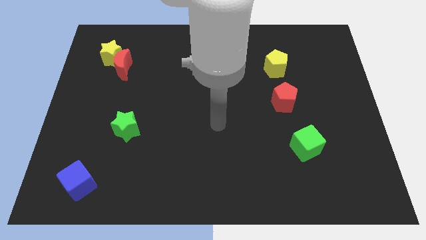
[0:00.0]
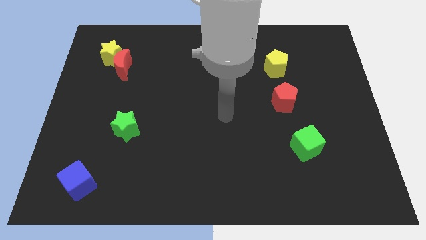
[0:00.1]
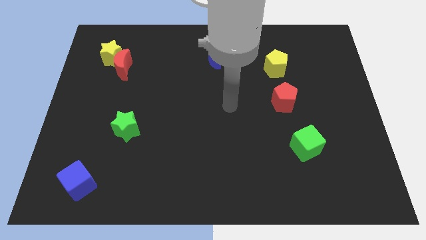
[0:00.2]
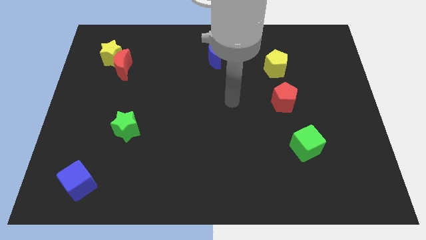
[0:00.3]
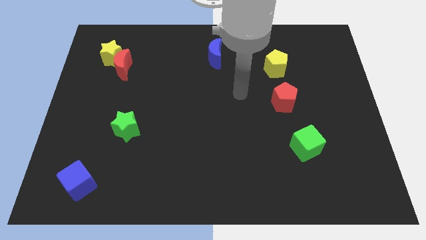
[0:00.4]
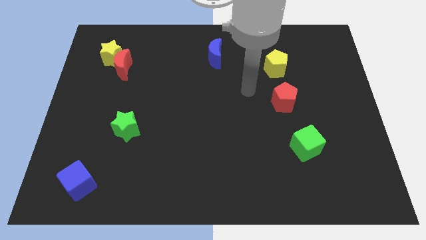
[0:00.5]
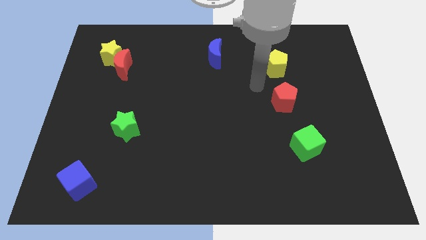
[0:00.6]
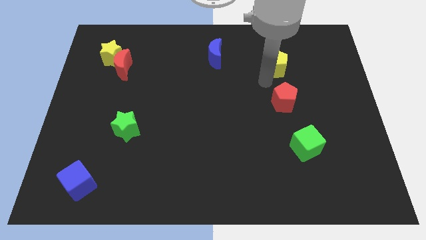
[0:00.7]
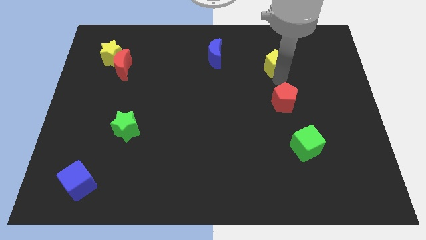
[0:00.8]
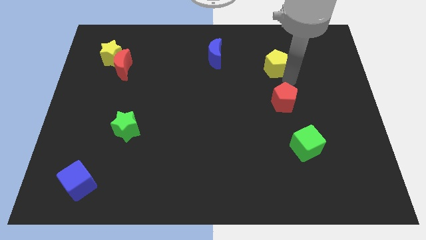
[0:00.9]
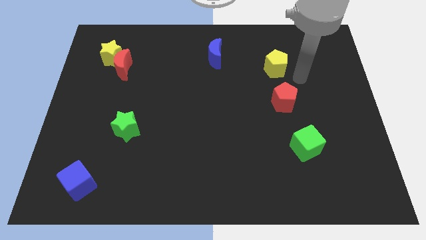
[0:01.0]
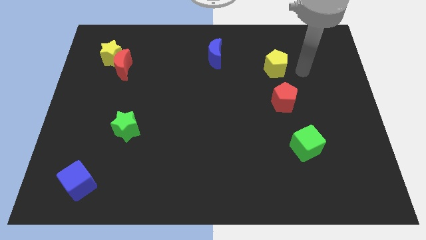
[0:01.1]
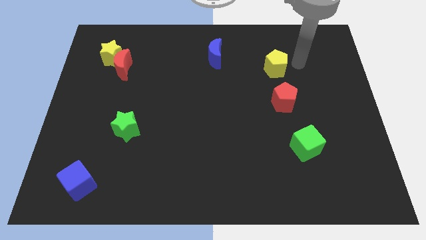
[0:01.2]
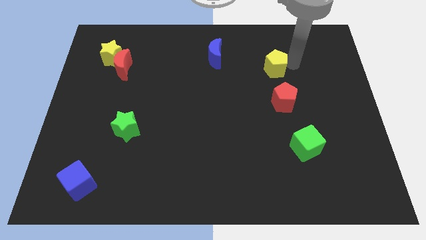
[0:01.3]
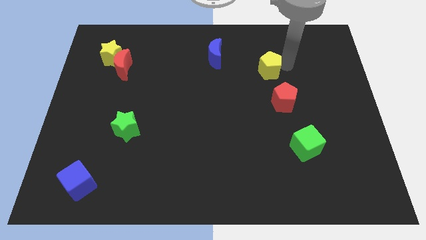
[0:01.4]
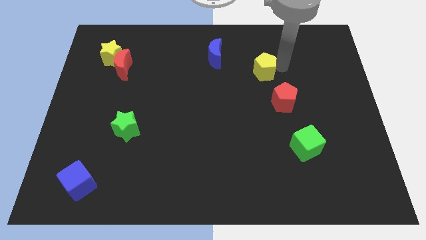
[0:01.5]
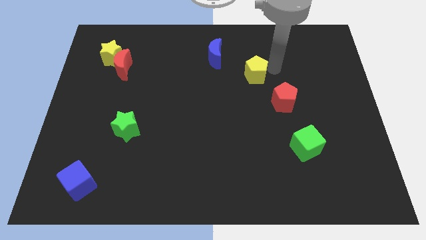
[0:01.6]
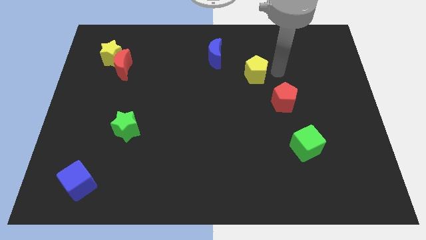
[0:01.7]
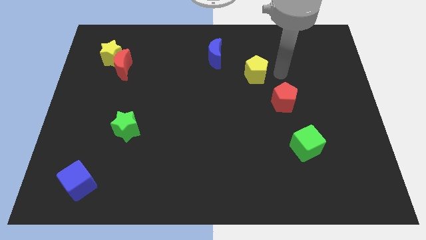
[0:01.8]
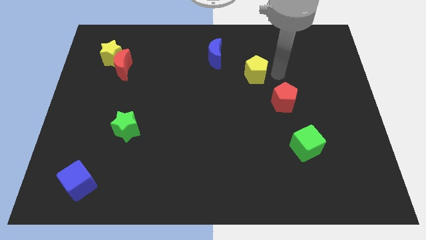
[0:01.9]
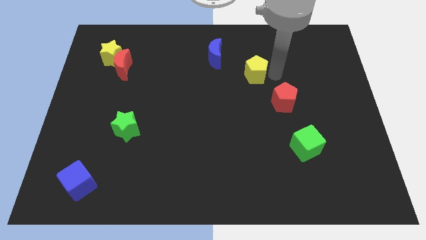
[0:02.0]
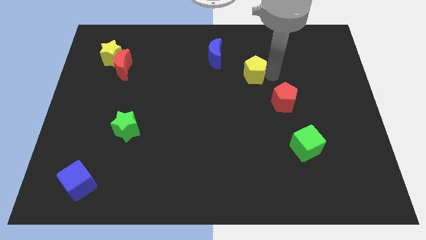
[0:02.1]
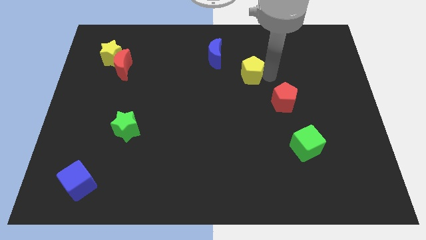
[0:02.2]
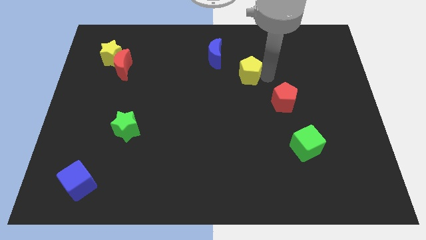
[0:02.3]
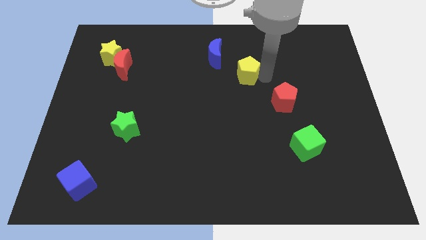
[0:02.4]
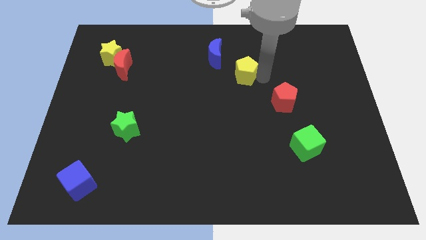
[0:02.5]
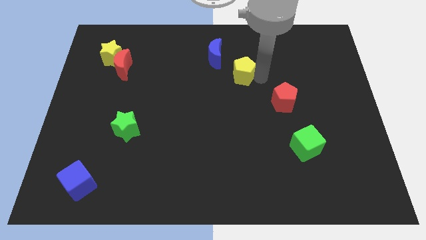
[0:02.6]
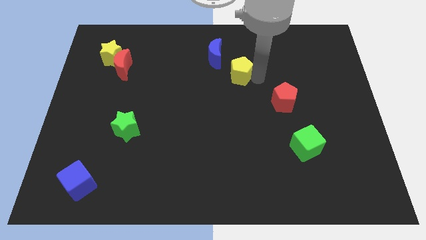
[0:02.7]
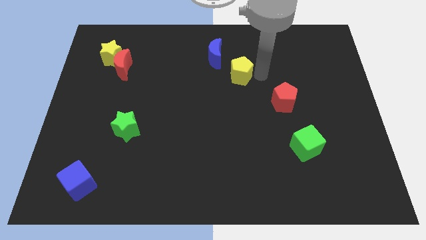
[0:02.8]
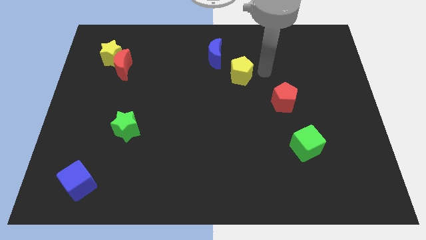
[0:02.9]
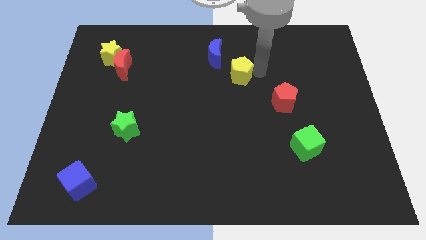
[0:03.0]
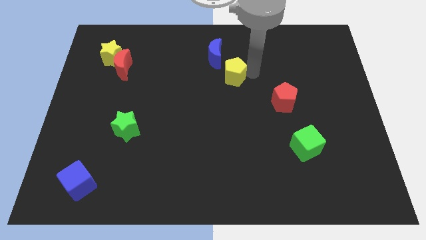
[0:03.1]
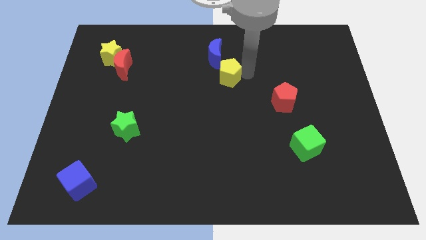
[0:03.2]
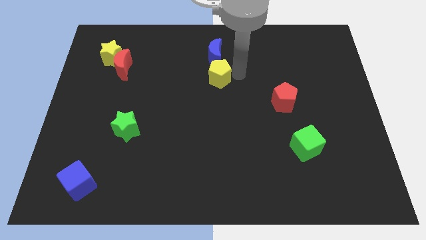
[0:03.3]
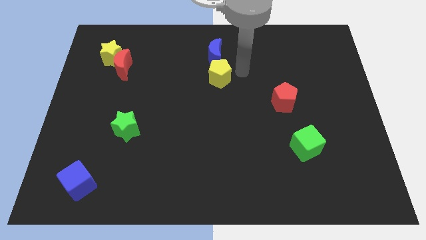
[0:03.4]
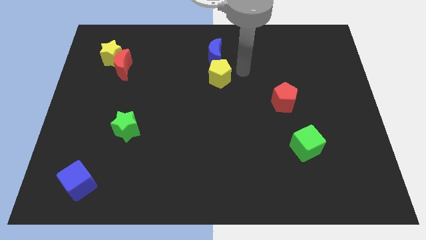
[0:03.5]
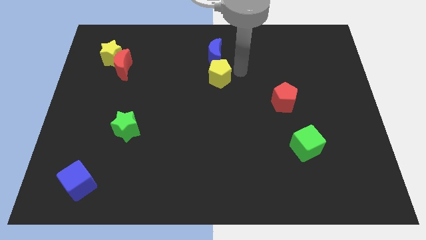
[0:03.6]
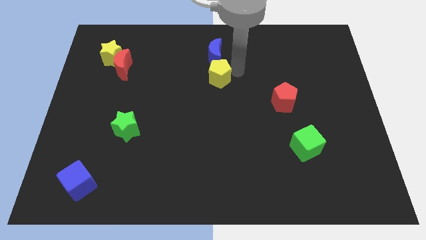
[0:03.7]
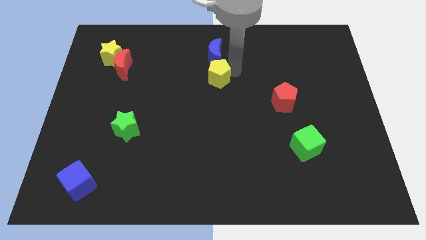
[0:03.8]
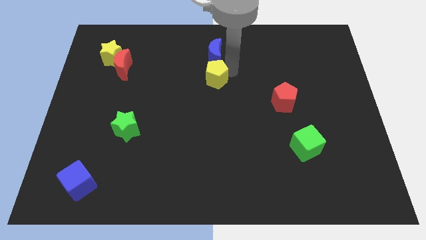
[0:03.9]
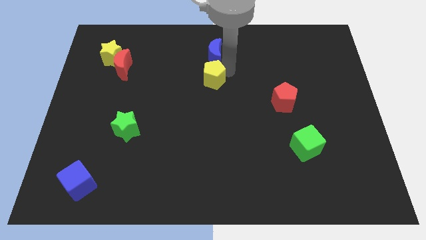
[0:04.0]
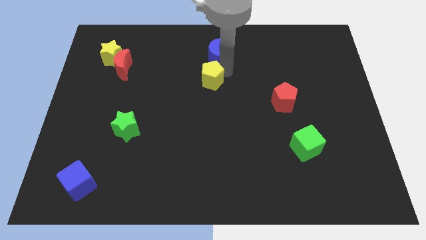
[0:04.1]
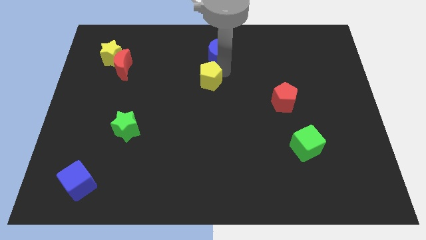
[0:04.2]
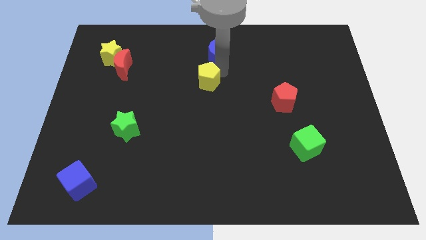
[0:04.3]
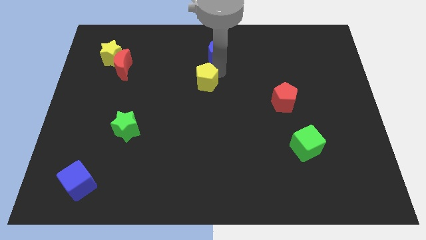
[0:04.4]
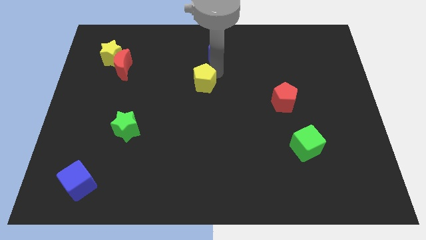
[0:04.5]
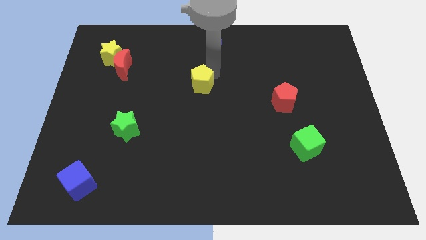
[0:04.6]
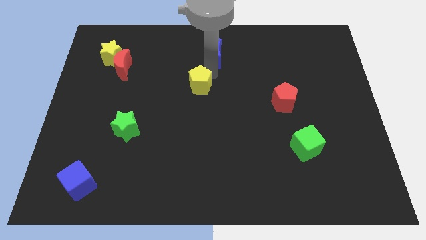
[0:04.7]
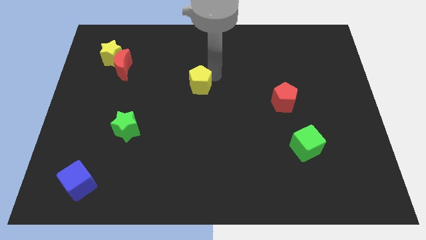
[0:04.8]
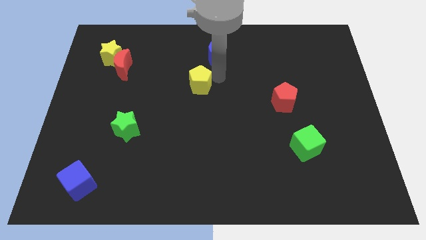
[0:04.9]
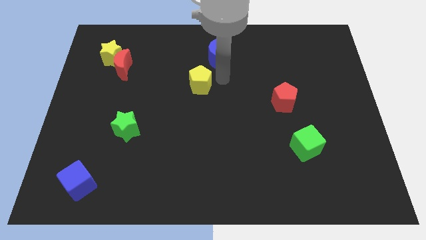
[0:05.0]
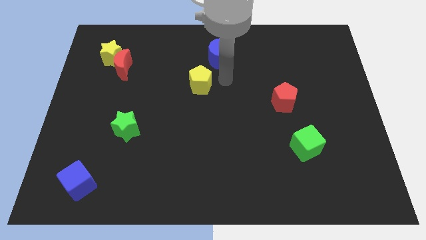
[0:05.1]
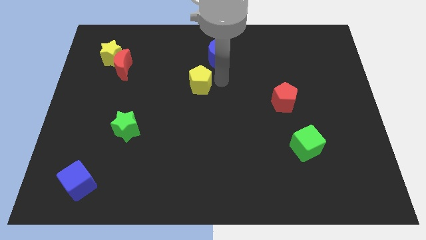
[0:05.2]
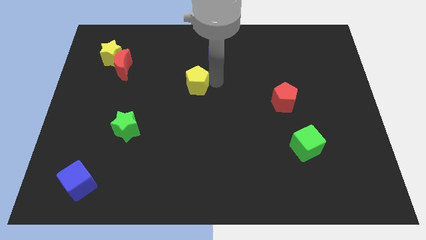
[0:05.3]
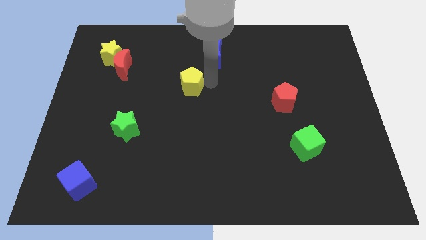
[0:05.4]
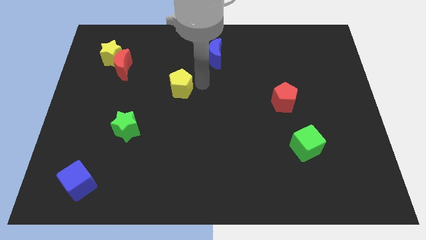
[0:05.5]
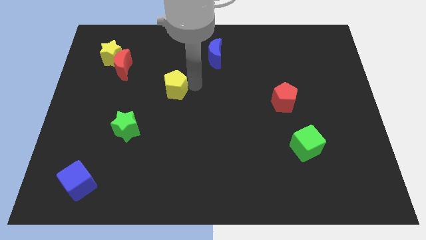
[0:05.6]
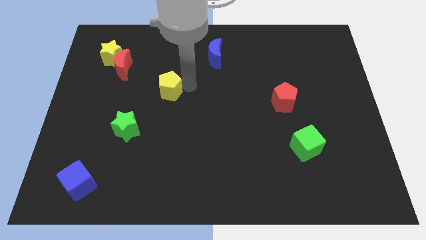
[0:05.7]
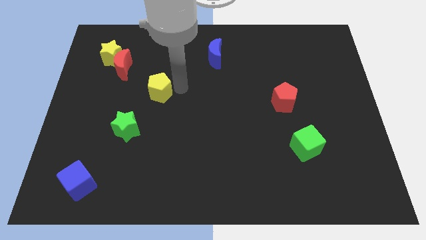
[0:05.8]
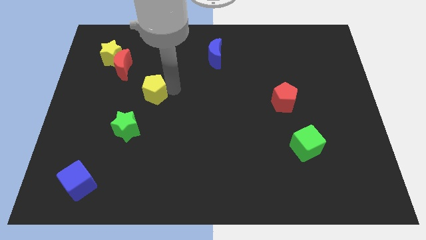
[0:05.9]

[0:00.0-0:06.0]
move the yellow pentagon to the top of the green star

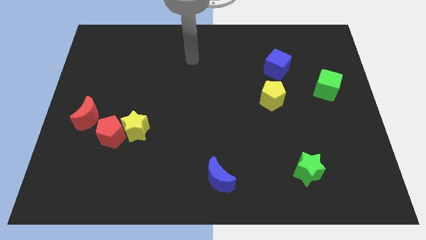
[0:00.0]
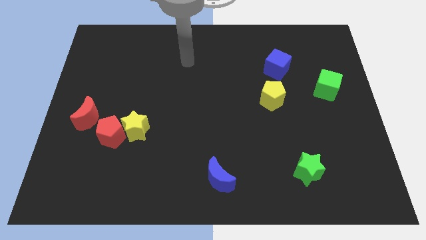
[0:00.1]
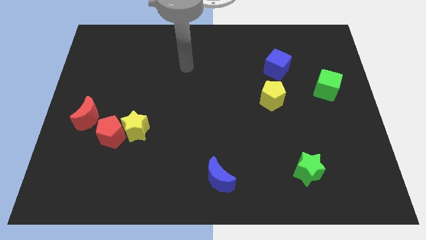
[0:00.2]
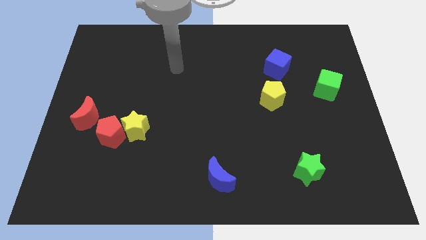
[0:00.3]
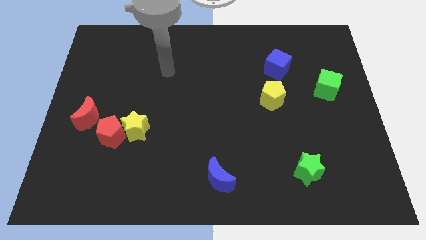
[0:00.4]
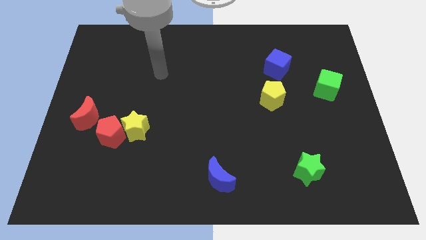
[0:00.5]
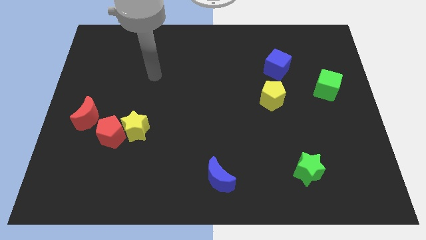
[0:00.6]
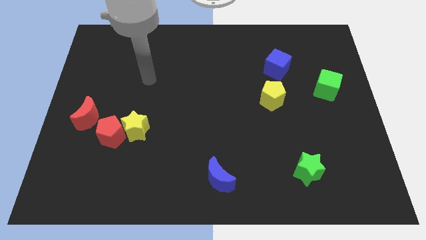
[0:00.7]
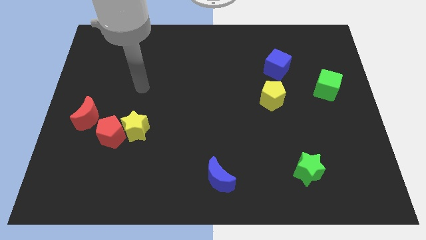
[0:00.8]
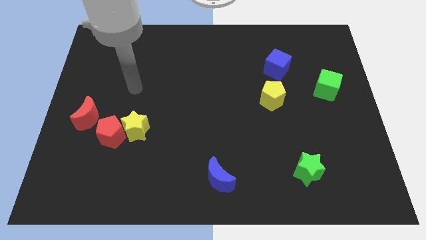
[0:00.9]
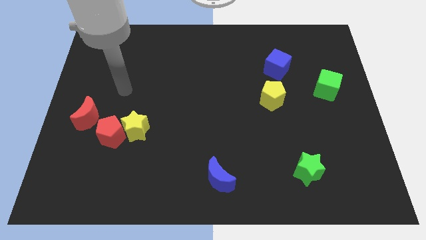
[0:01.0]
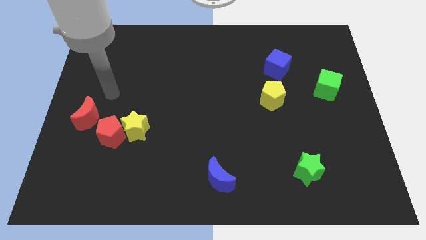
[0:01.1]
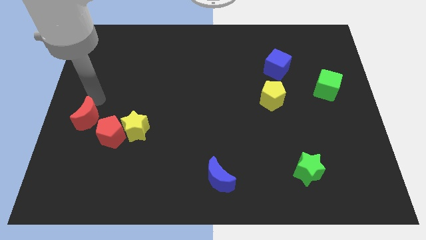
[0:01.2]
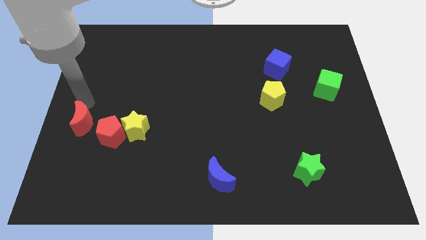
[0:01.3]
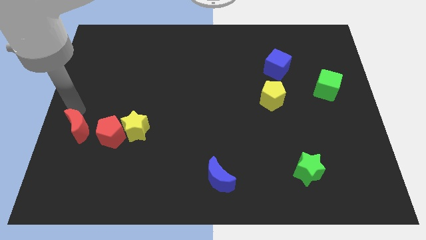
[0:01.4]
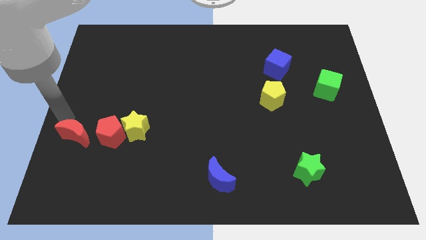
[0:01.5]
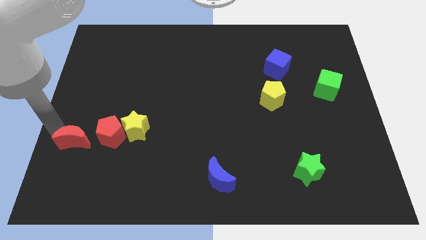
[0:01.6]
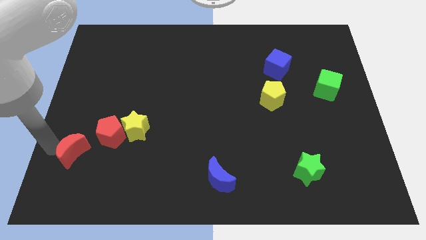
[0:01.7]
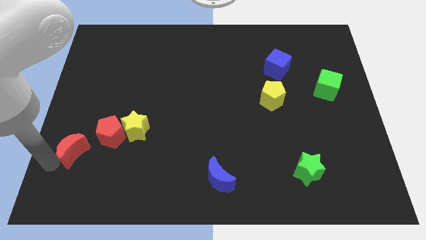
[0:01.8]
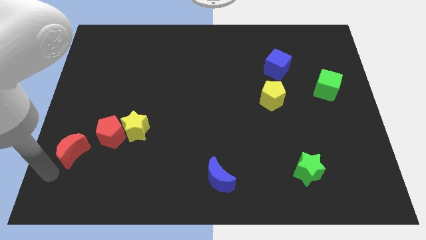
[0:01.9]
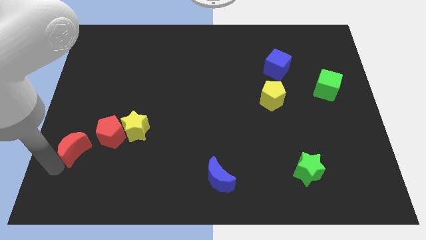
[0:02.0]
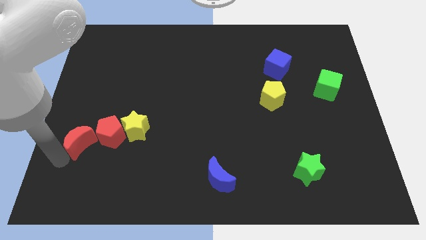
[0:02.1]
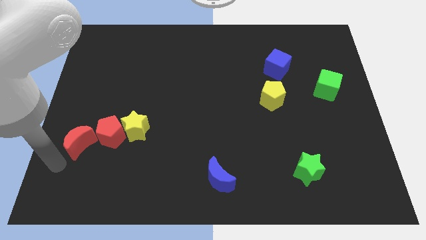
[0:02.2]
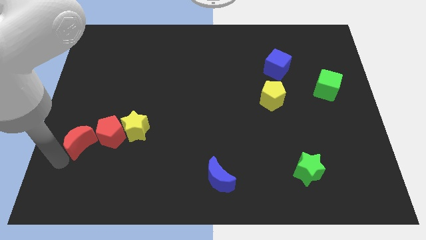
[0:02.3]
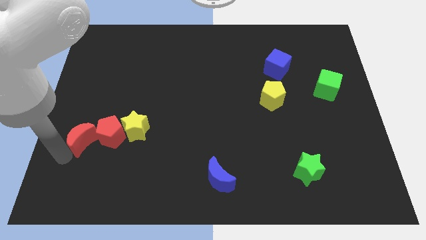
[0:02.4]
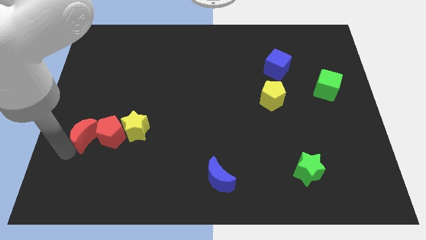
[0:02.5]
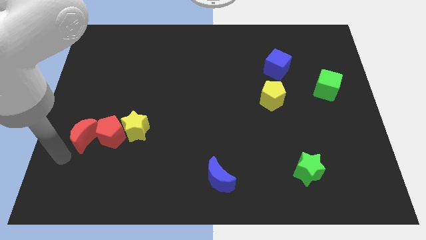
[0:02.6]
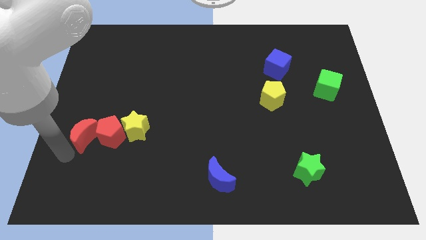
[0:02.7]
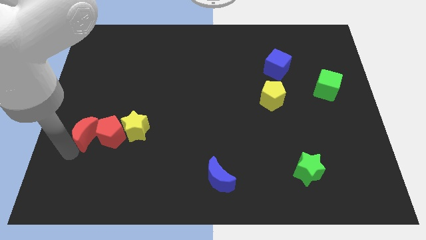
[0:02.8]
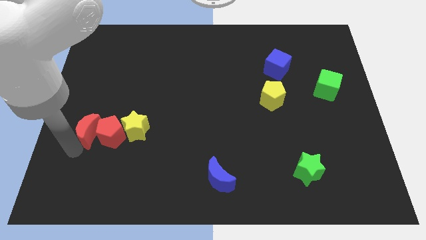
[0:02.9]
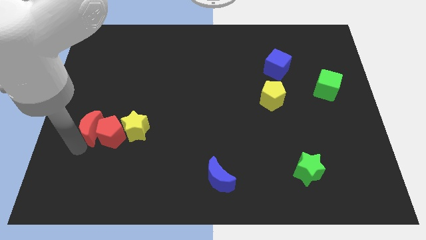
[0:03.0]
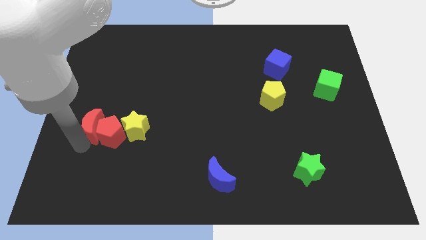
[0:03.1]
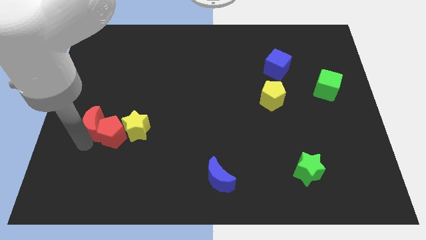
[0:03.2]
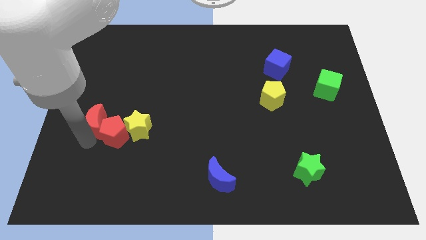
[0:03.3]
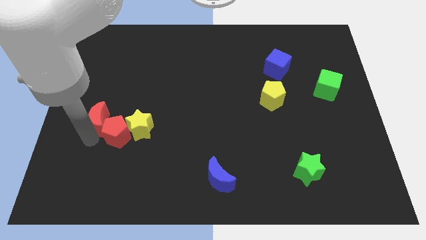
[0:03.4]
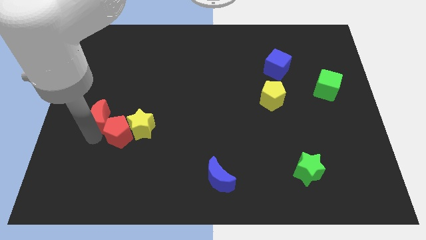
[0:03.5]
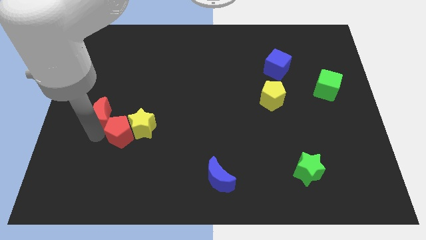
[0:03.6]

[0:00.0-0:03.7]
slide the red moon to the top left side of the yellow star
